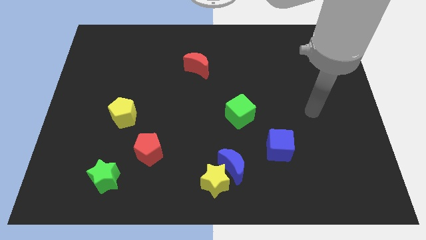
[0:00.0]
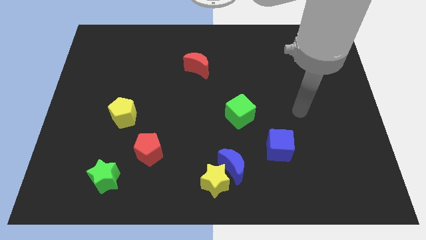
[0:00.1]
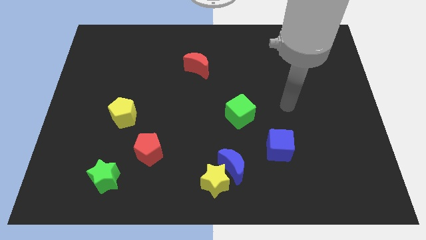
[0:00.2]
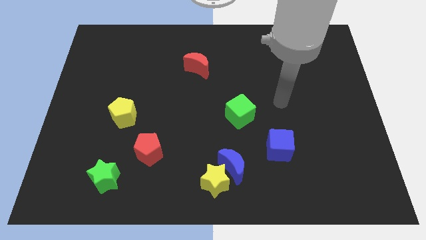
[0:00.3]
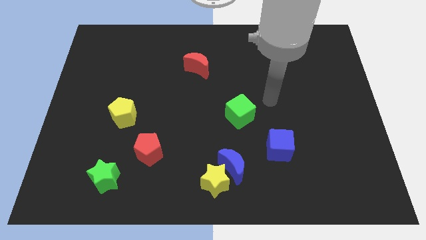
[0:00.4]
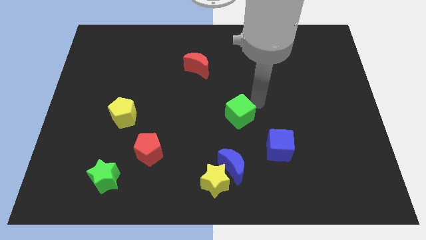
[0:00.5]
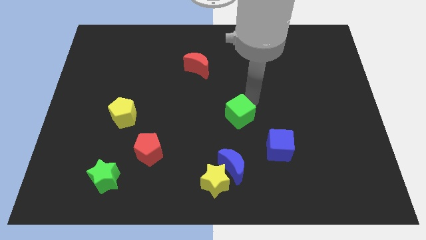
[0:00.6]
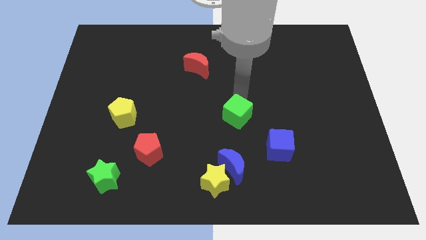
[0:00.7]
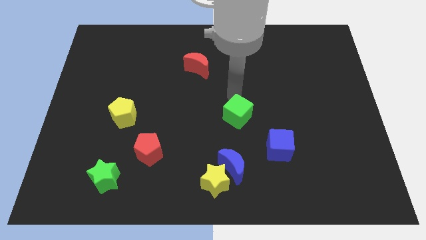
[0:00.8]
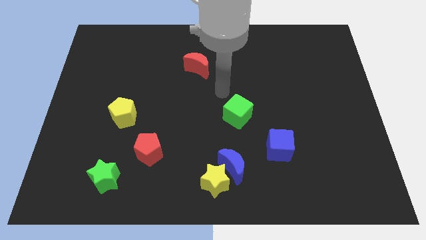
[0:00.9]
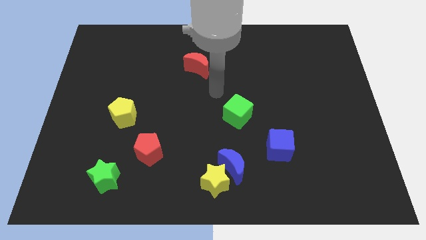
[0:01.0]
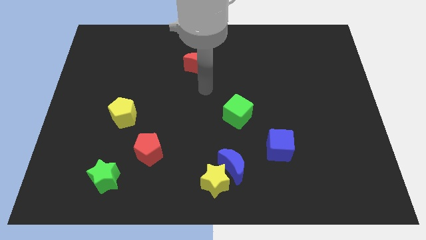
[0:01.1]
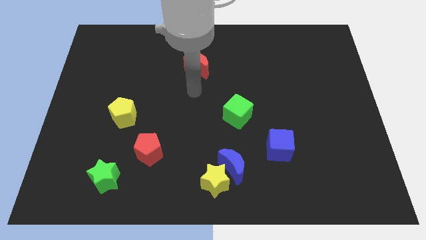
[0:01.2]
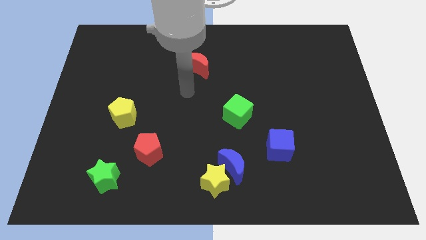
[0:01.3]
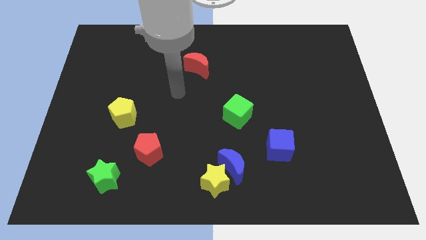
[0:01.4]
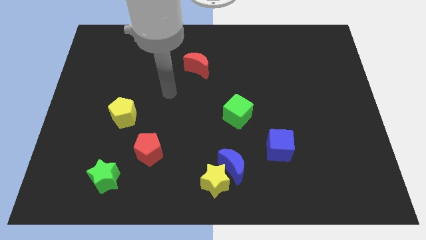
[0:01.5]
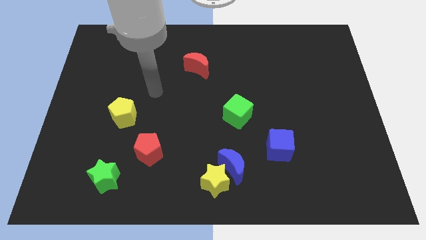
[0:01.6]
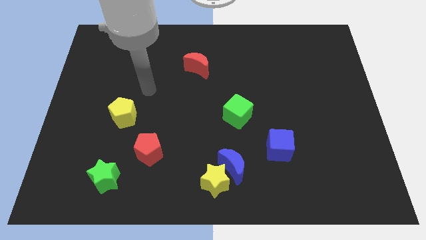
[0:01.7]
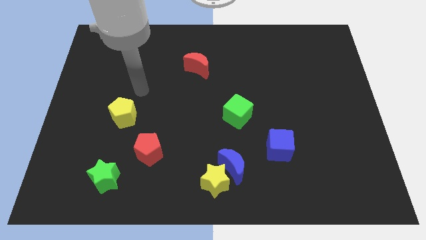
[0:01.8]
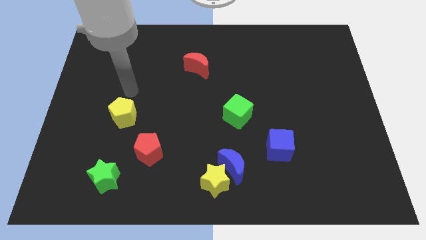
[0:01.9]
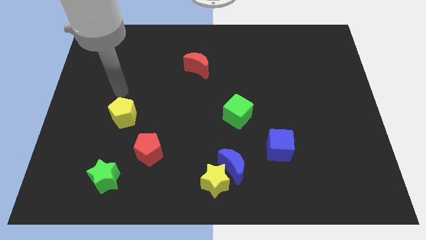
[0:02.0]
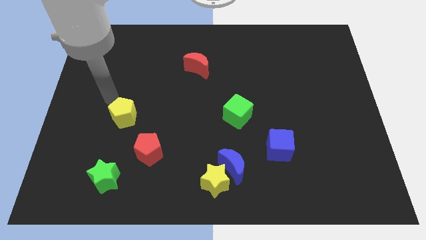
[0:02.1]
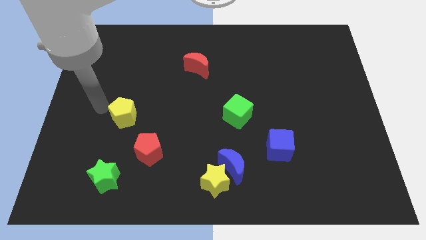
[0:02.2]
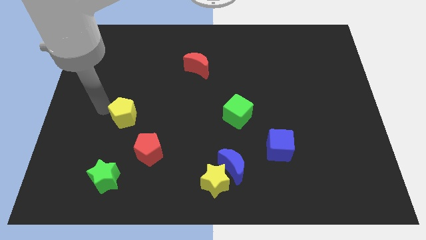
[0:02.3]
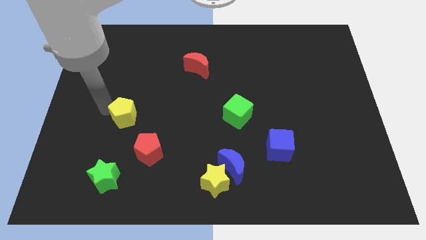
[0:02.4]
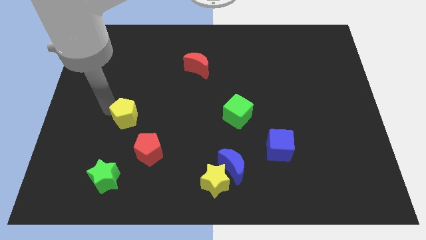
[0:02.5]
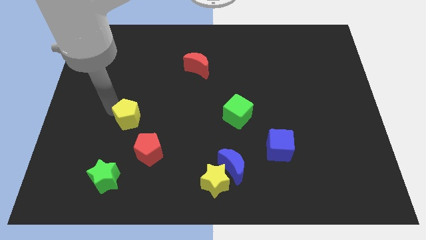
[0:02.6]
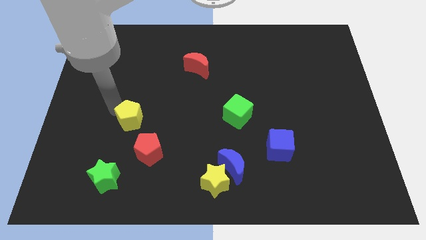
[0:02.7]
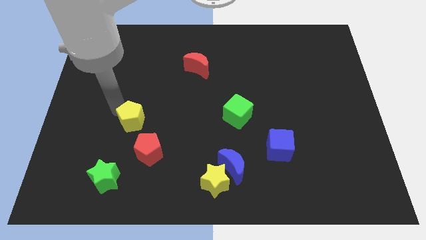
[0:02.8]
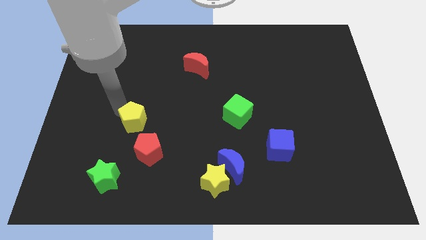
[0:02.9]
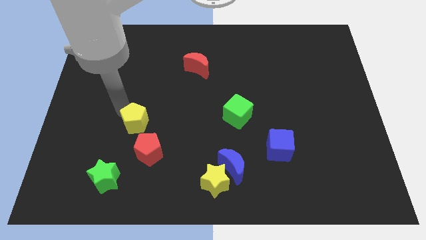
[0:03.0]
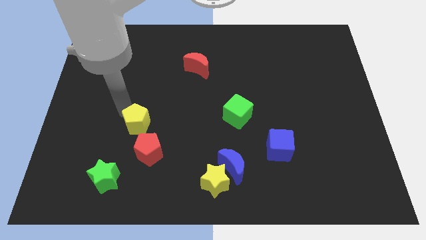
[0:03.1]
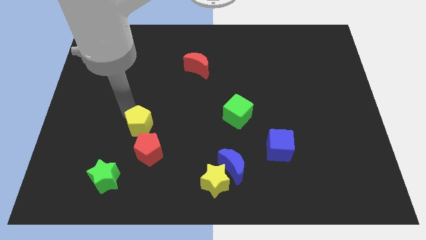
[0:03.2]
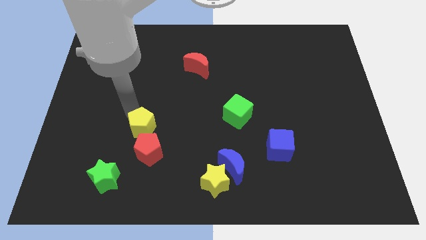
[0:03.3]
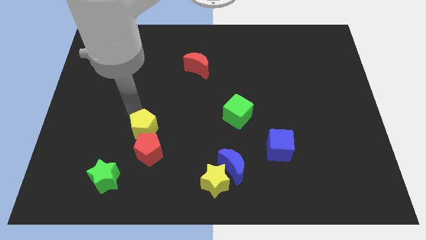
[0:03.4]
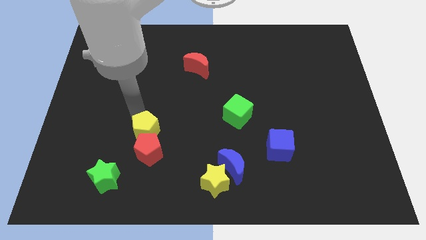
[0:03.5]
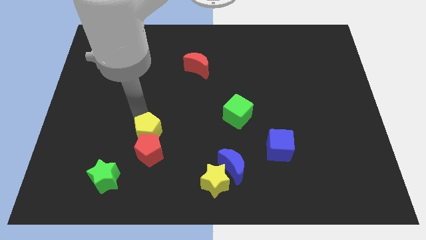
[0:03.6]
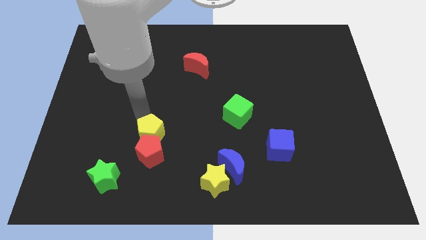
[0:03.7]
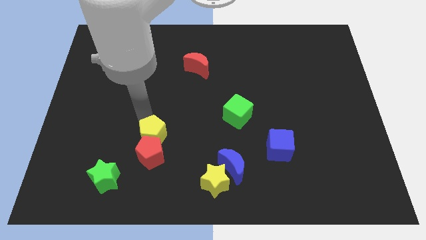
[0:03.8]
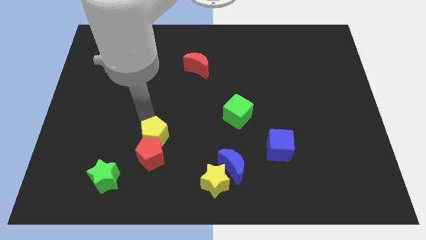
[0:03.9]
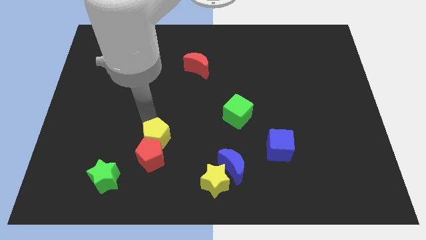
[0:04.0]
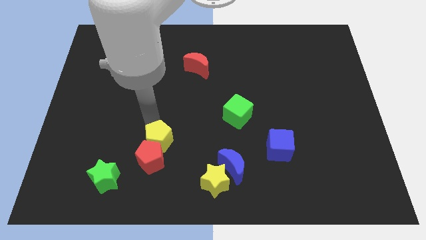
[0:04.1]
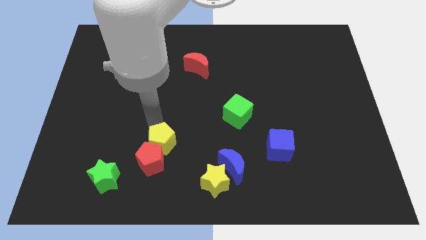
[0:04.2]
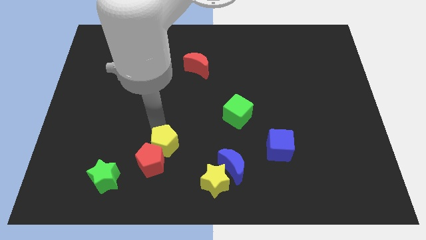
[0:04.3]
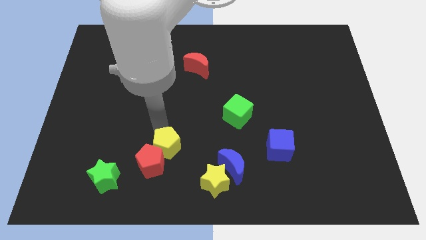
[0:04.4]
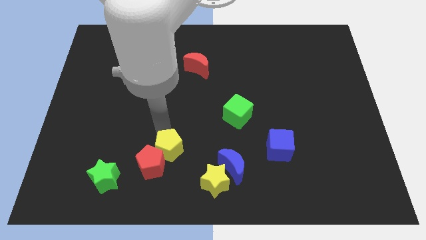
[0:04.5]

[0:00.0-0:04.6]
move the yellow pentagon to the top left of the yellow star

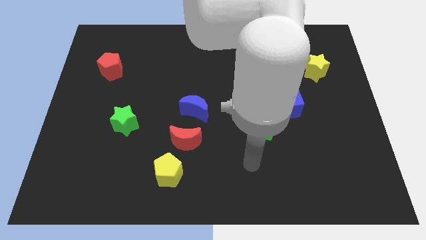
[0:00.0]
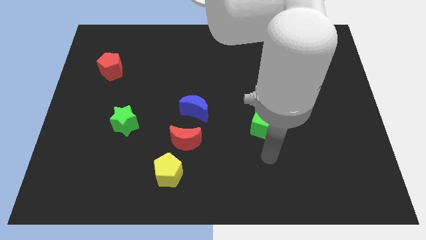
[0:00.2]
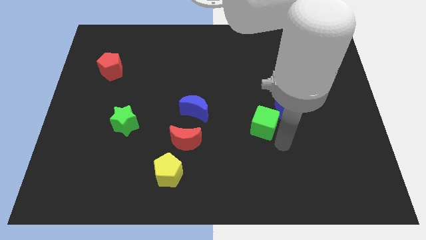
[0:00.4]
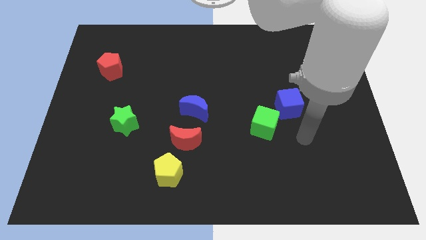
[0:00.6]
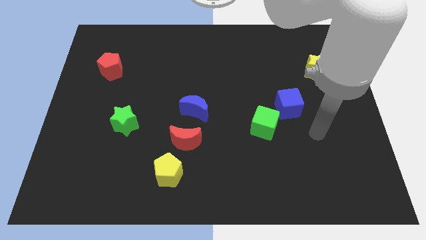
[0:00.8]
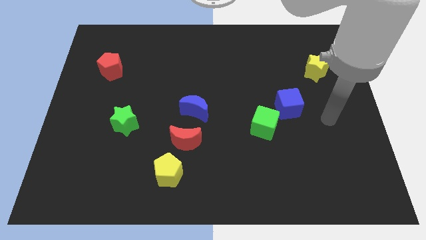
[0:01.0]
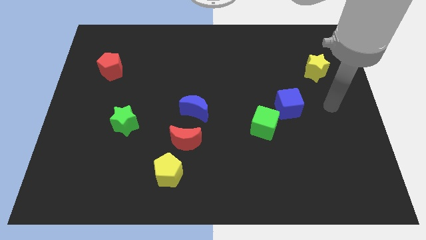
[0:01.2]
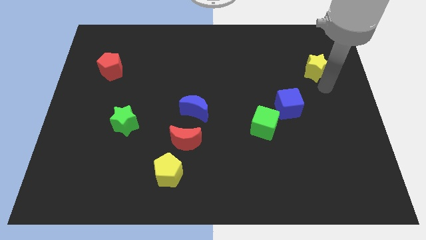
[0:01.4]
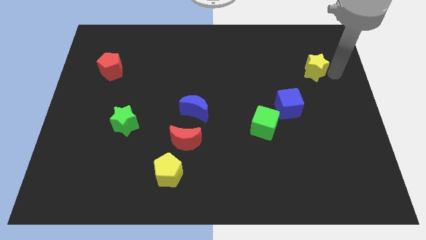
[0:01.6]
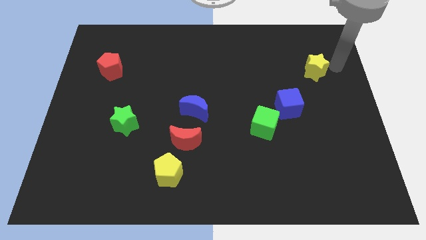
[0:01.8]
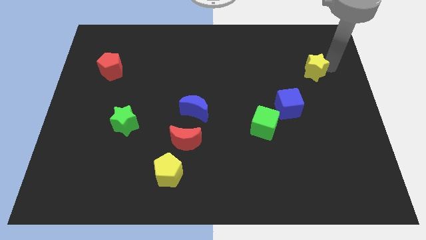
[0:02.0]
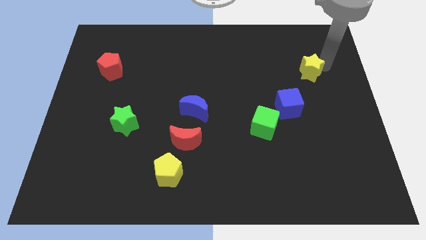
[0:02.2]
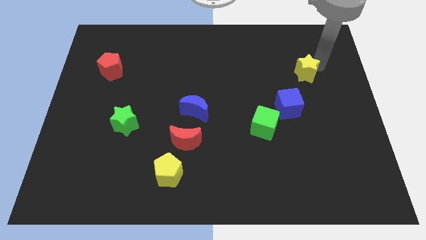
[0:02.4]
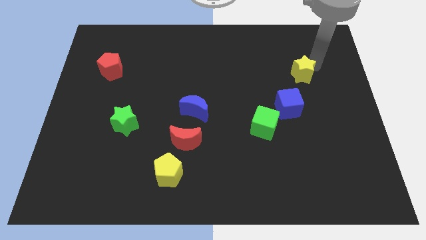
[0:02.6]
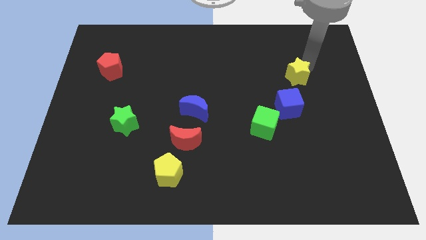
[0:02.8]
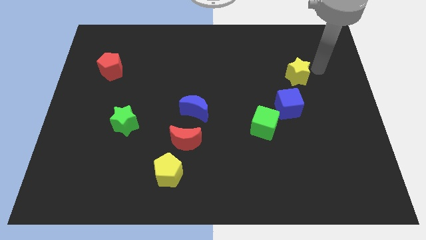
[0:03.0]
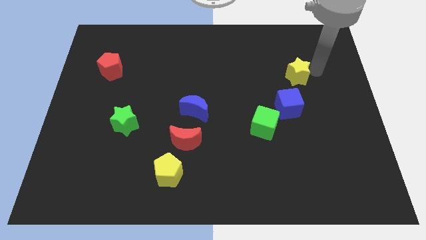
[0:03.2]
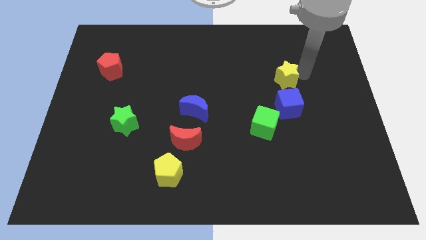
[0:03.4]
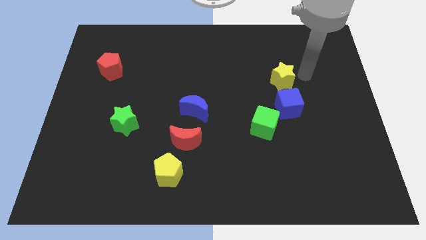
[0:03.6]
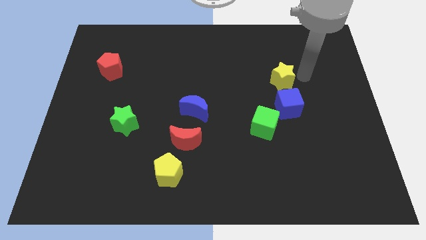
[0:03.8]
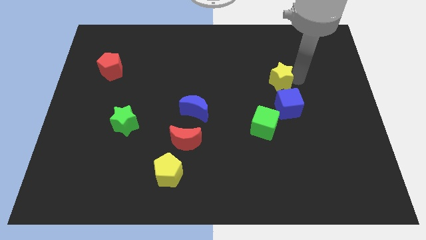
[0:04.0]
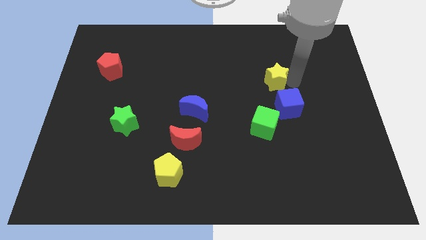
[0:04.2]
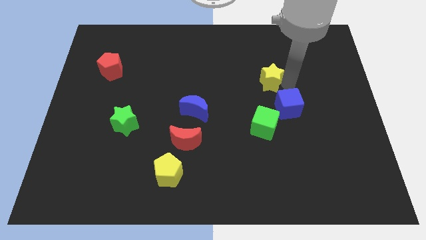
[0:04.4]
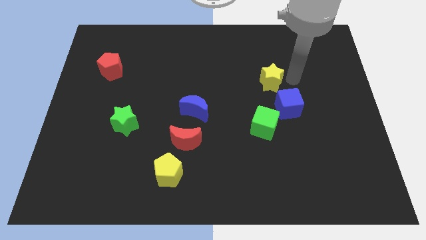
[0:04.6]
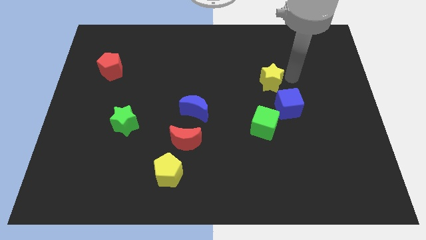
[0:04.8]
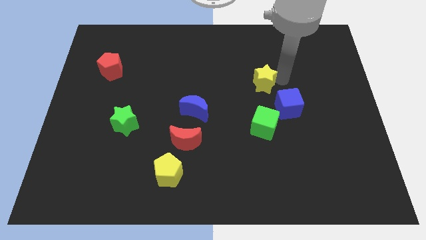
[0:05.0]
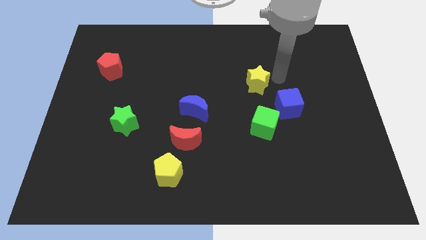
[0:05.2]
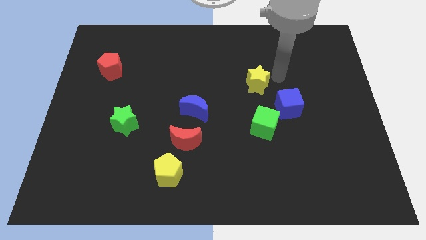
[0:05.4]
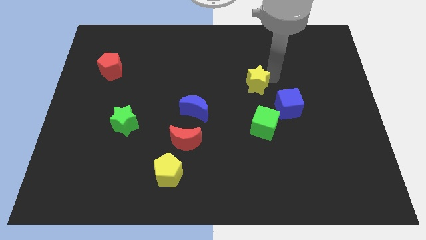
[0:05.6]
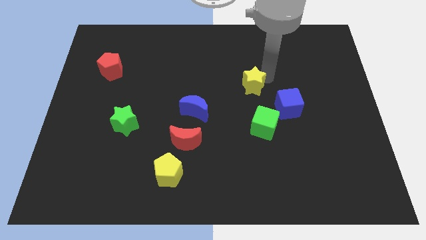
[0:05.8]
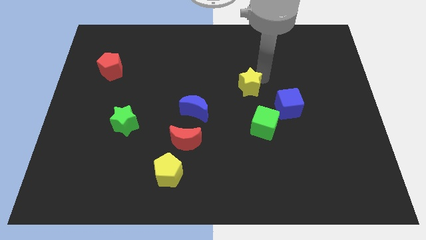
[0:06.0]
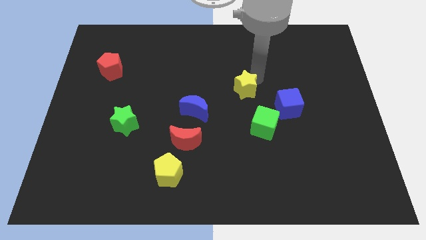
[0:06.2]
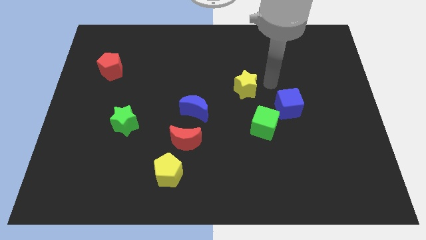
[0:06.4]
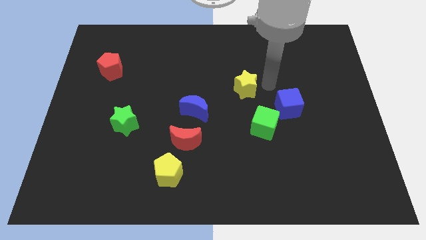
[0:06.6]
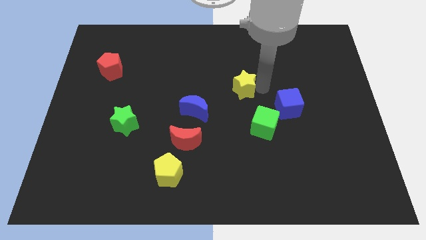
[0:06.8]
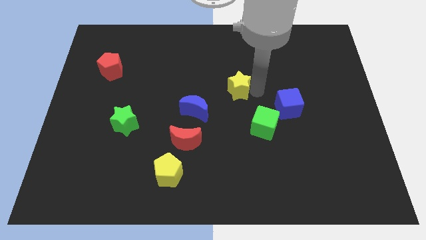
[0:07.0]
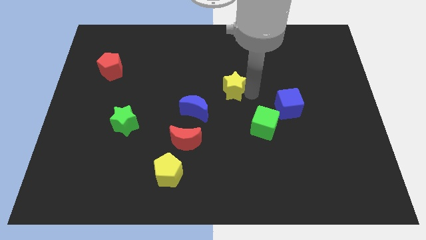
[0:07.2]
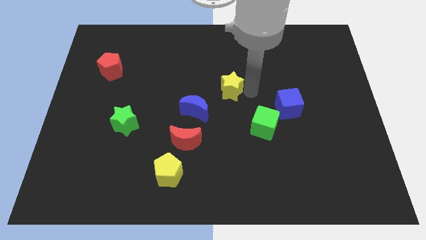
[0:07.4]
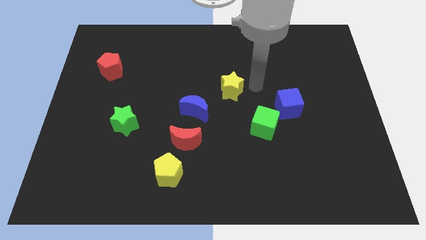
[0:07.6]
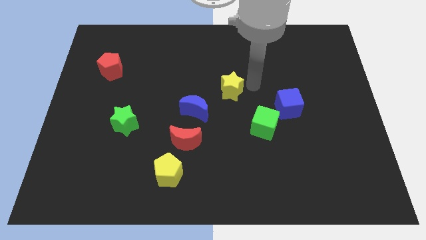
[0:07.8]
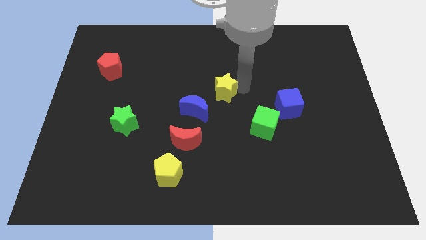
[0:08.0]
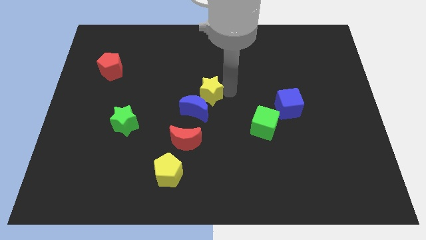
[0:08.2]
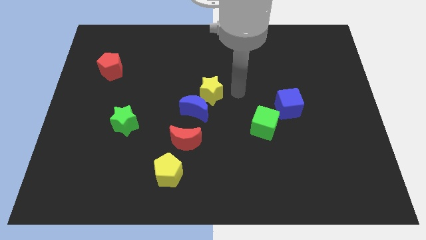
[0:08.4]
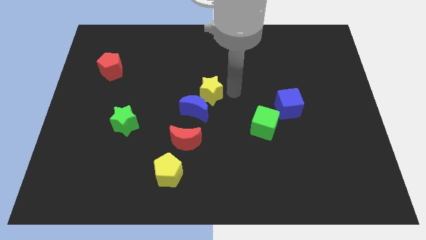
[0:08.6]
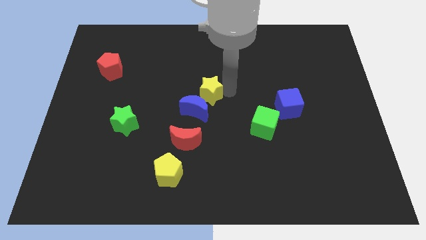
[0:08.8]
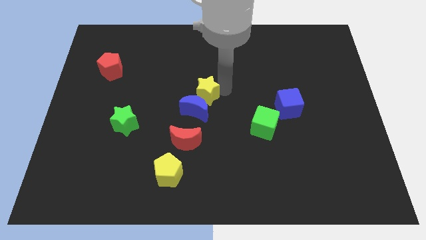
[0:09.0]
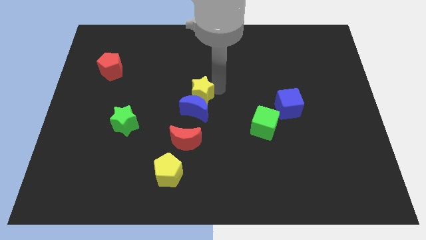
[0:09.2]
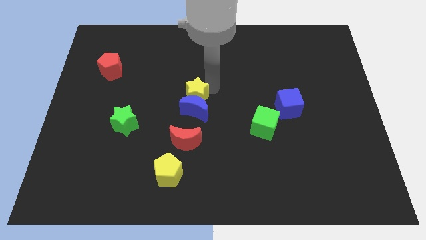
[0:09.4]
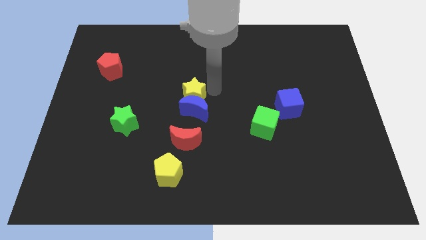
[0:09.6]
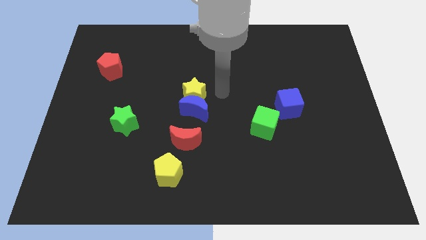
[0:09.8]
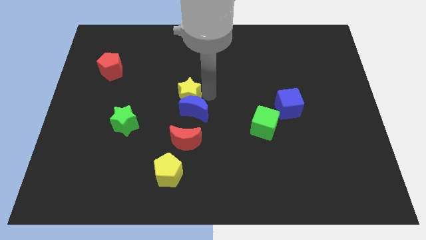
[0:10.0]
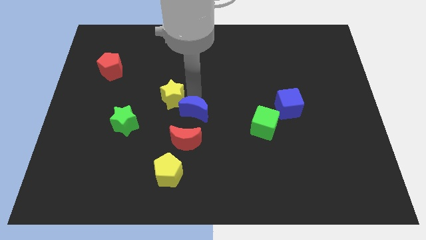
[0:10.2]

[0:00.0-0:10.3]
slide the yellow star diagonally up and to the right of the green star
